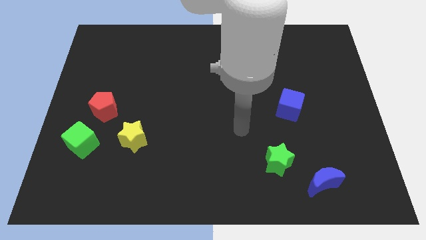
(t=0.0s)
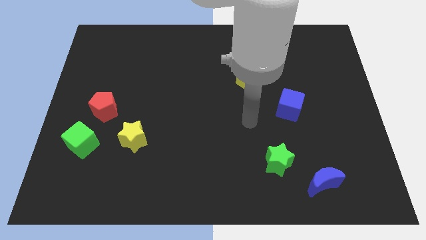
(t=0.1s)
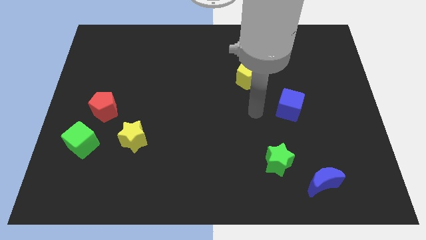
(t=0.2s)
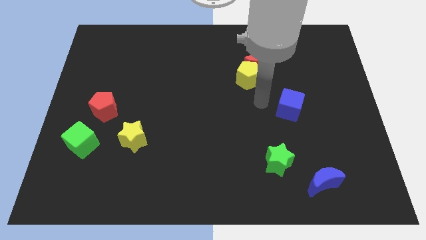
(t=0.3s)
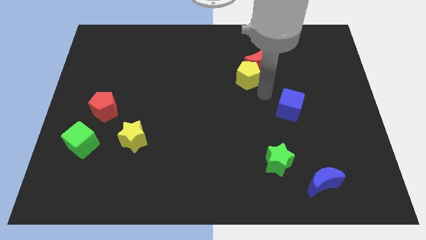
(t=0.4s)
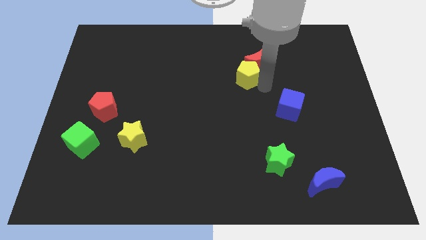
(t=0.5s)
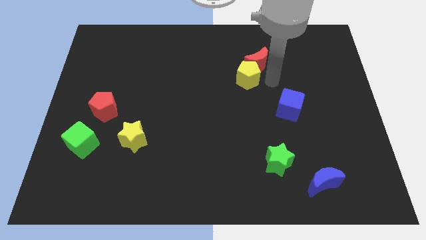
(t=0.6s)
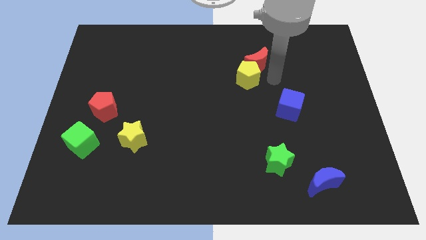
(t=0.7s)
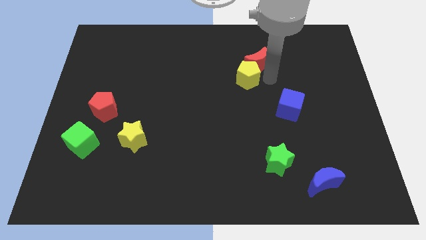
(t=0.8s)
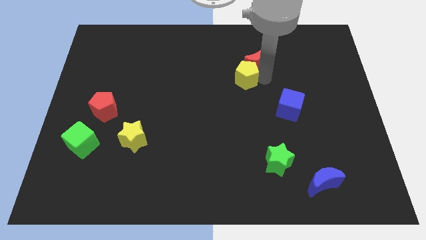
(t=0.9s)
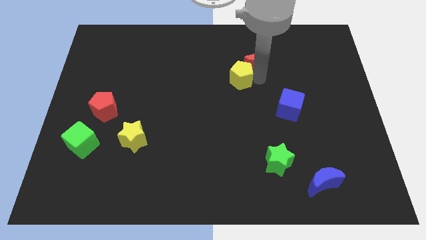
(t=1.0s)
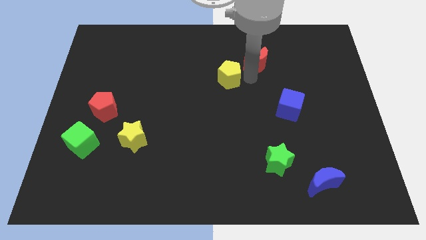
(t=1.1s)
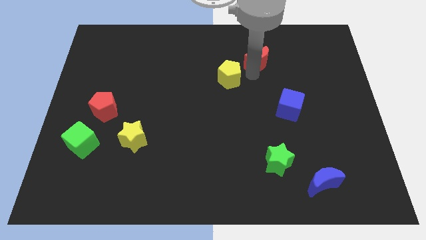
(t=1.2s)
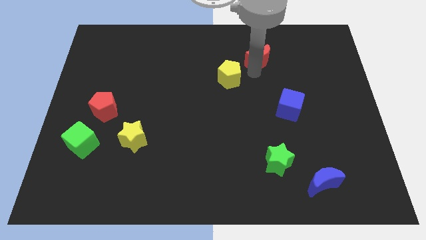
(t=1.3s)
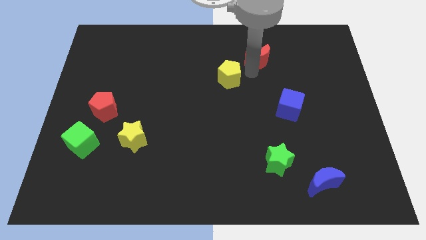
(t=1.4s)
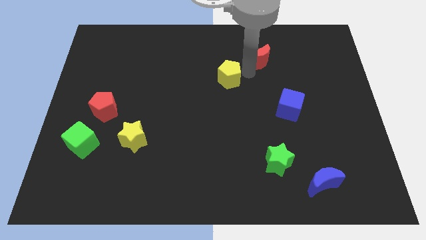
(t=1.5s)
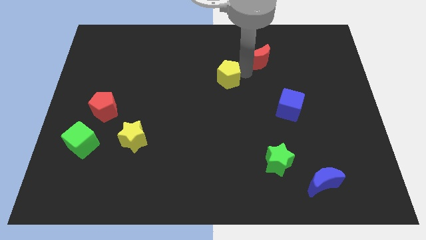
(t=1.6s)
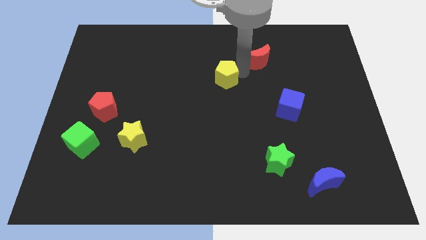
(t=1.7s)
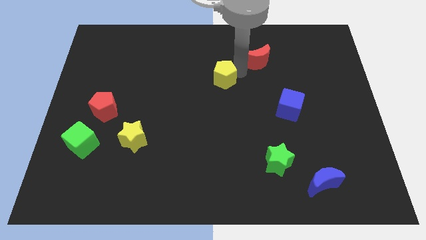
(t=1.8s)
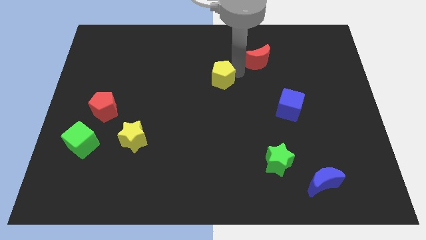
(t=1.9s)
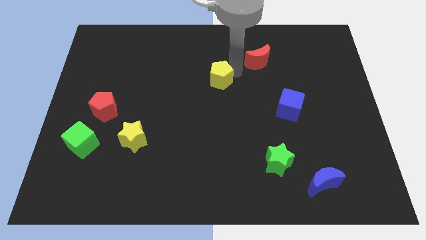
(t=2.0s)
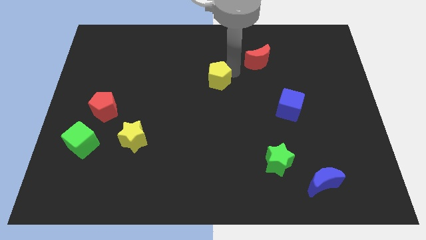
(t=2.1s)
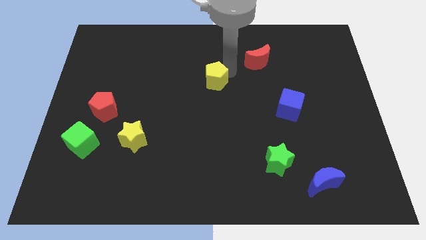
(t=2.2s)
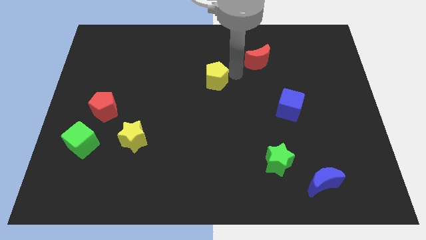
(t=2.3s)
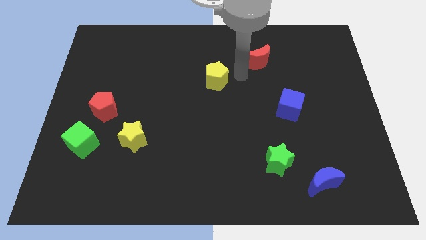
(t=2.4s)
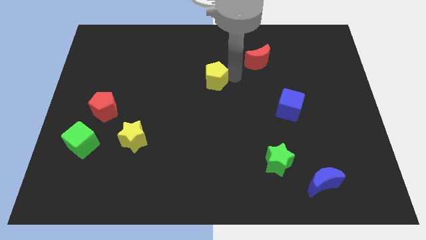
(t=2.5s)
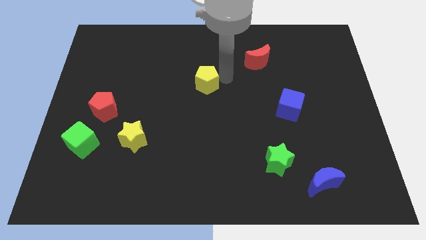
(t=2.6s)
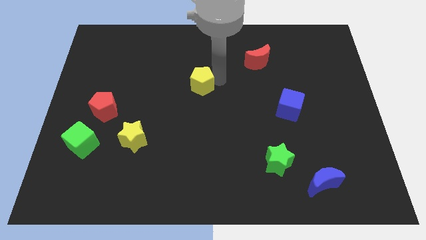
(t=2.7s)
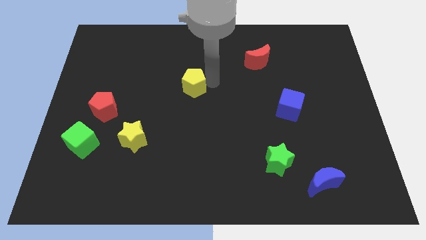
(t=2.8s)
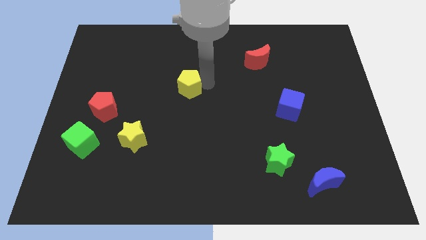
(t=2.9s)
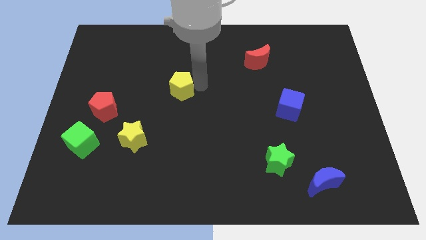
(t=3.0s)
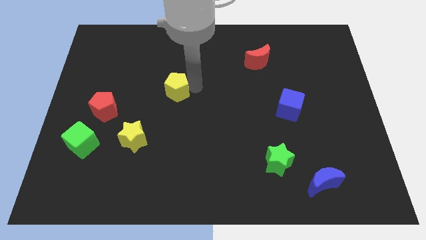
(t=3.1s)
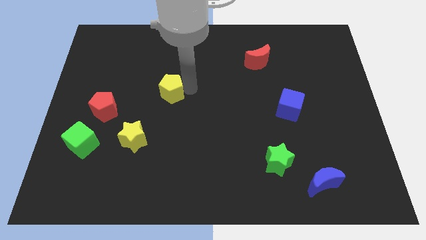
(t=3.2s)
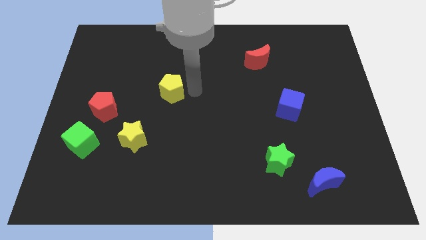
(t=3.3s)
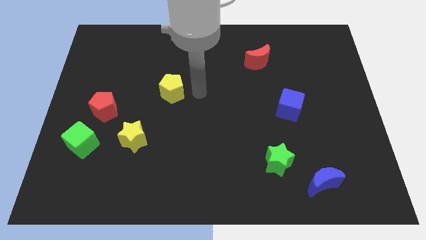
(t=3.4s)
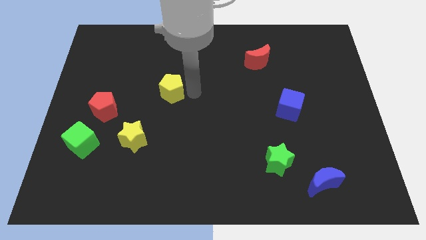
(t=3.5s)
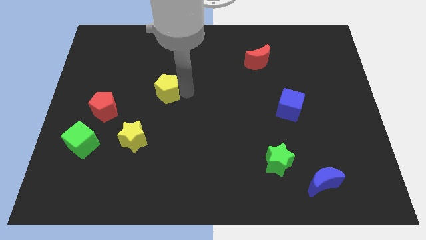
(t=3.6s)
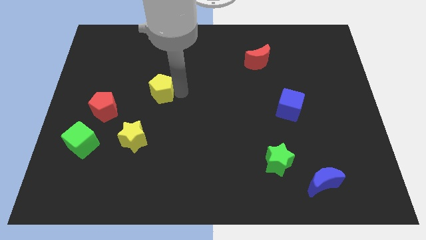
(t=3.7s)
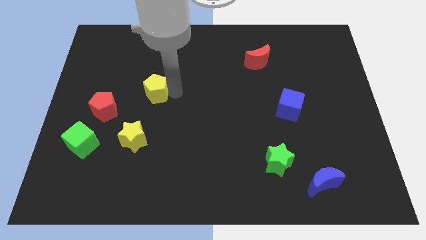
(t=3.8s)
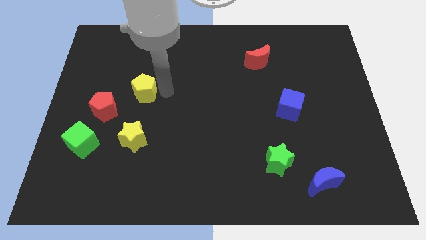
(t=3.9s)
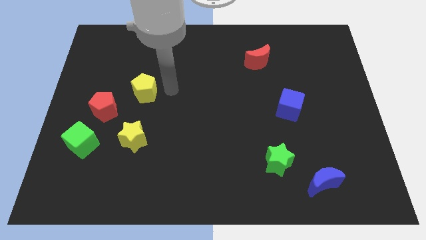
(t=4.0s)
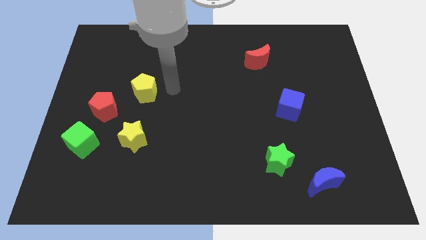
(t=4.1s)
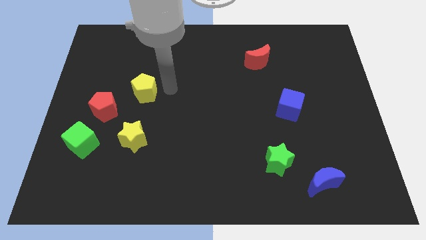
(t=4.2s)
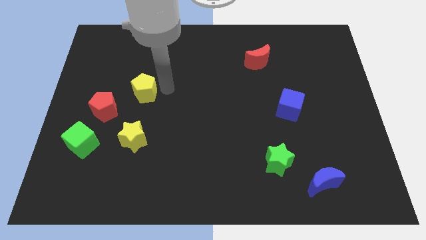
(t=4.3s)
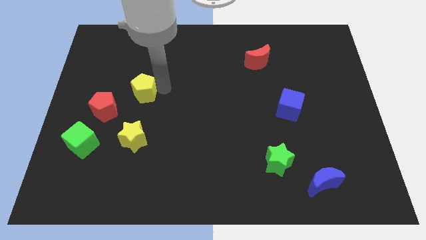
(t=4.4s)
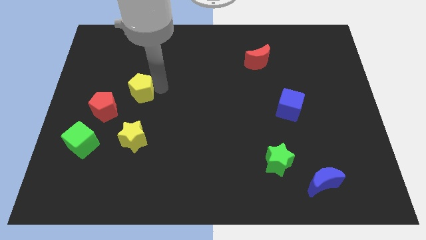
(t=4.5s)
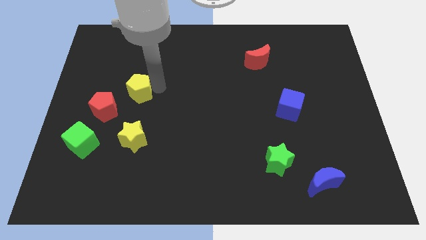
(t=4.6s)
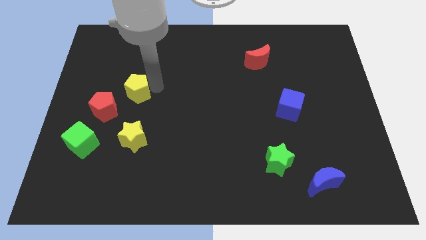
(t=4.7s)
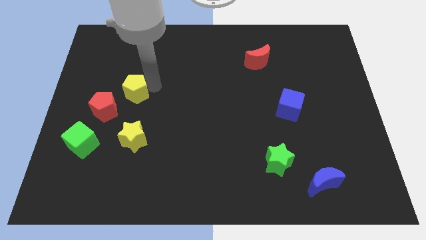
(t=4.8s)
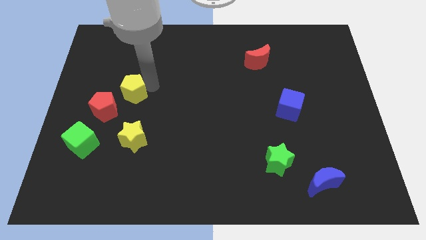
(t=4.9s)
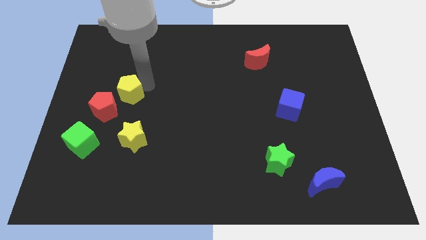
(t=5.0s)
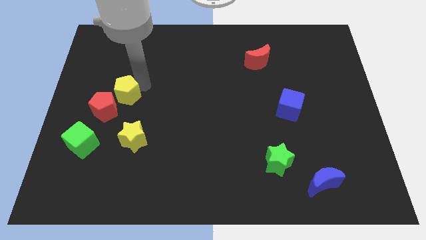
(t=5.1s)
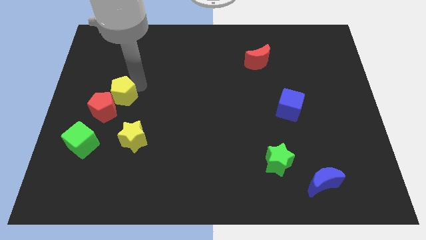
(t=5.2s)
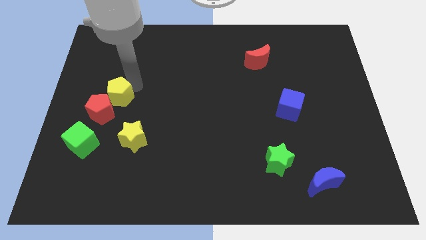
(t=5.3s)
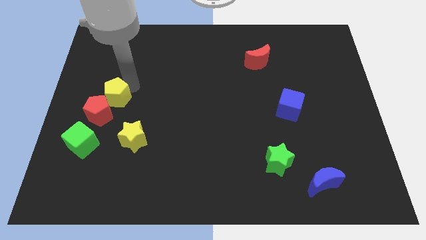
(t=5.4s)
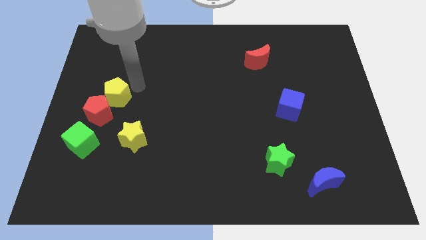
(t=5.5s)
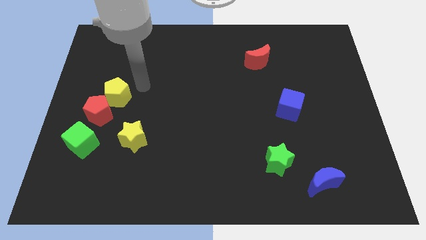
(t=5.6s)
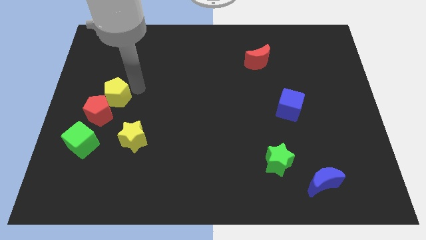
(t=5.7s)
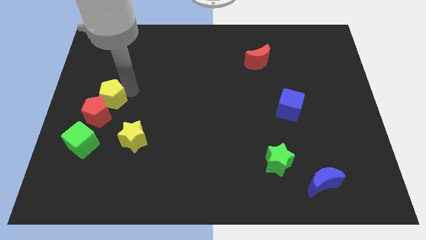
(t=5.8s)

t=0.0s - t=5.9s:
push the yellow pentagon to the top of the green cube
